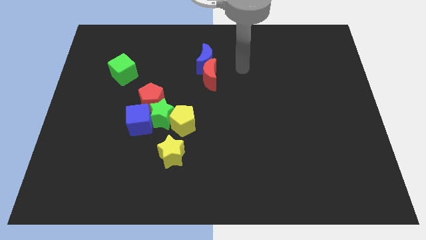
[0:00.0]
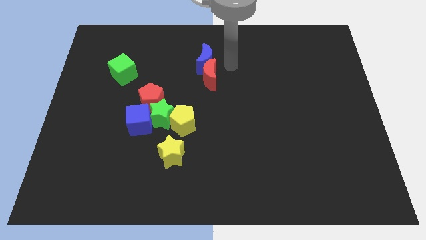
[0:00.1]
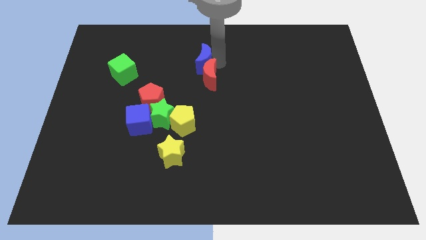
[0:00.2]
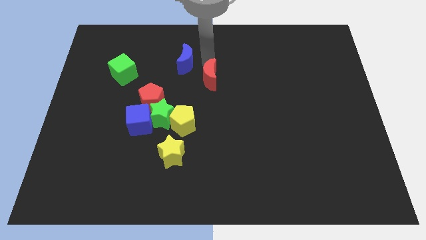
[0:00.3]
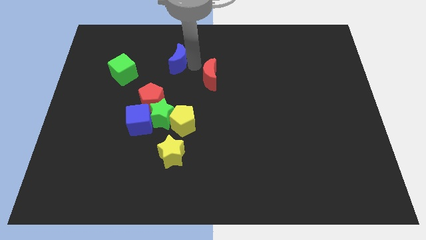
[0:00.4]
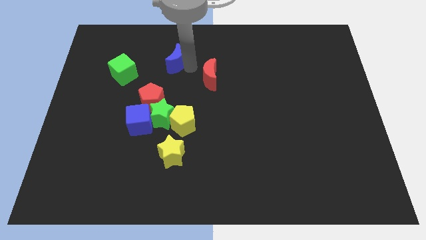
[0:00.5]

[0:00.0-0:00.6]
move the red moon away from the blue moon

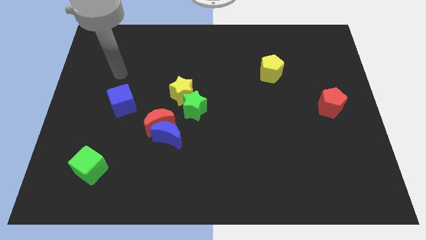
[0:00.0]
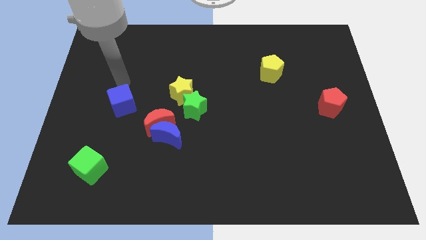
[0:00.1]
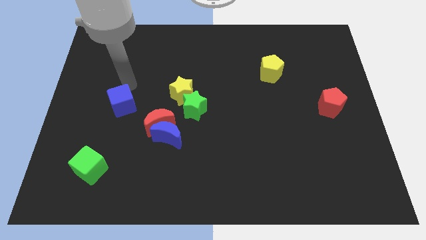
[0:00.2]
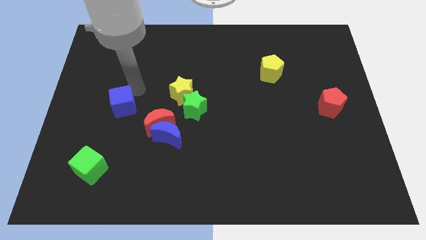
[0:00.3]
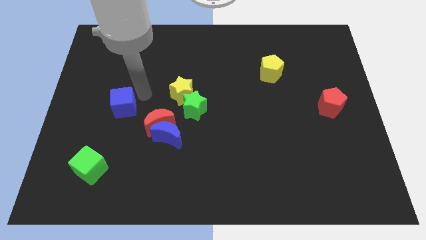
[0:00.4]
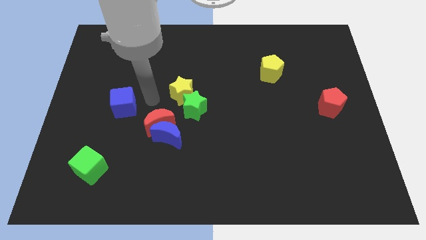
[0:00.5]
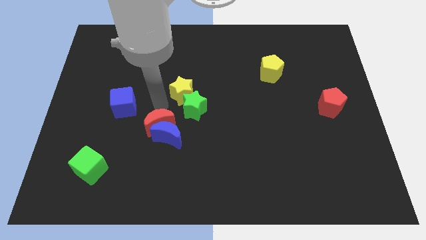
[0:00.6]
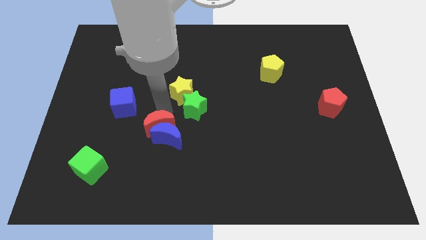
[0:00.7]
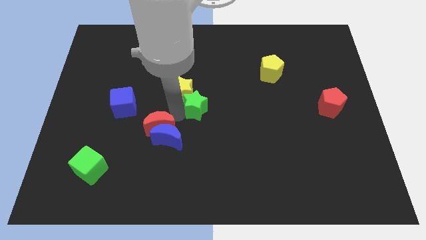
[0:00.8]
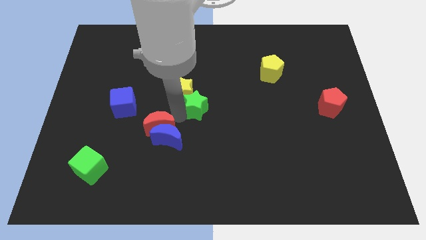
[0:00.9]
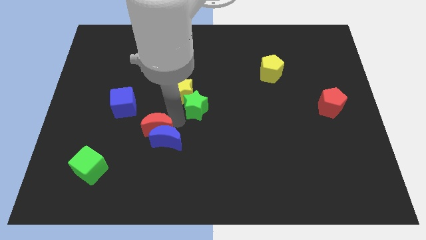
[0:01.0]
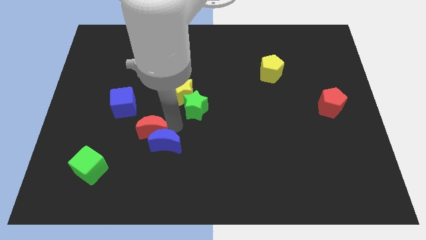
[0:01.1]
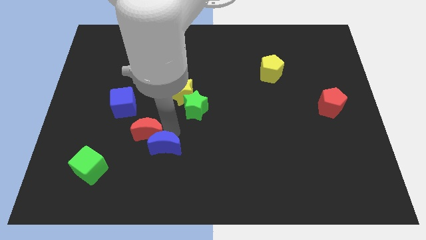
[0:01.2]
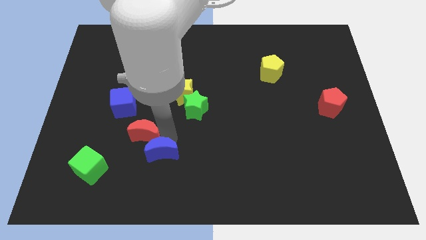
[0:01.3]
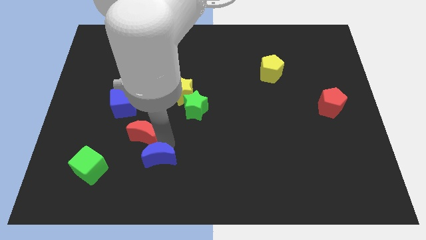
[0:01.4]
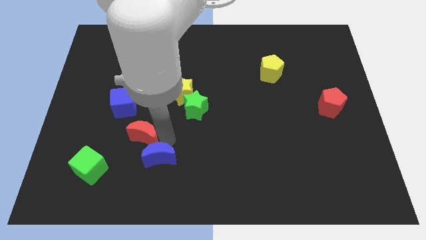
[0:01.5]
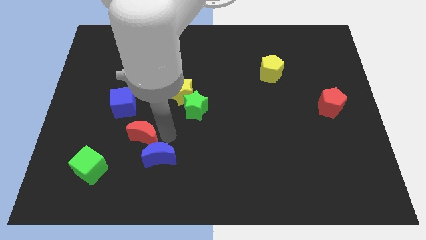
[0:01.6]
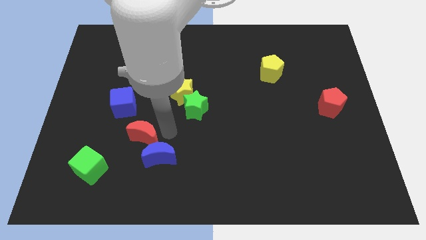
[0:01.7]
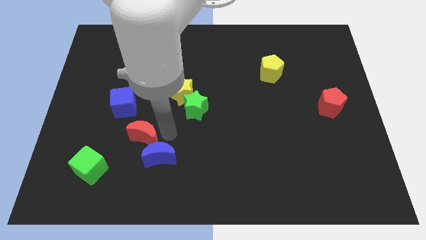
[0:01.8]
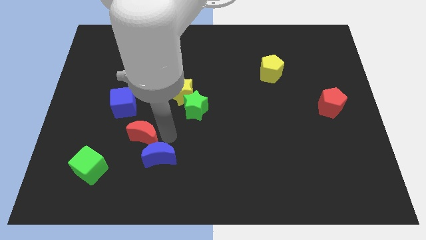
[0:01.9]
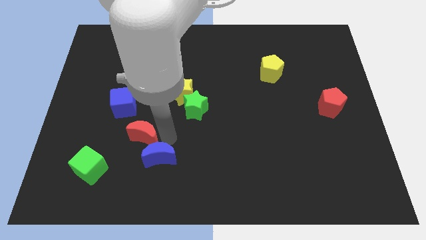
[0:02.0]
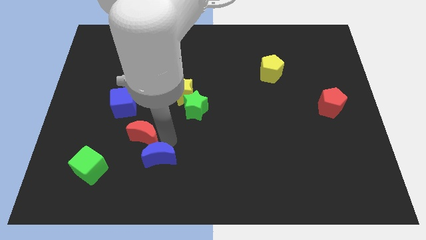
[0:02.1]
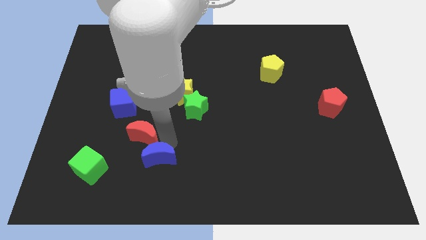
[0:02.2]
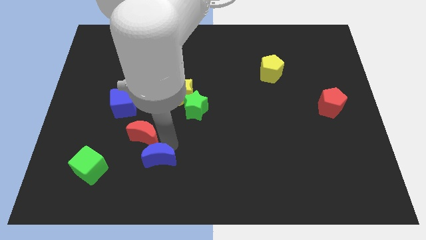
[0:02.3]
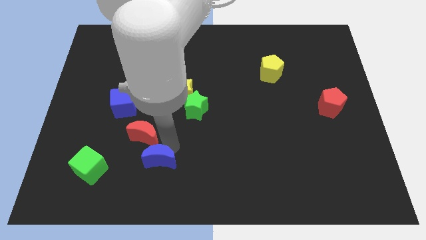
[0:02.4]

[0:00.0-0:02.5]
move the blue moon away from the red moon and green star

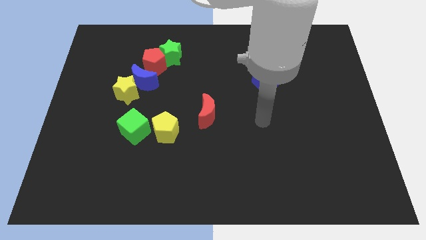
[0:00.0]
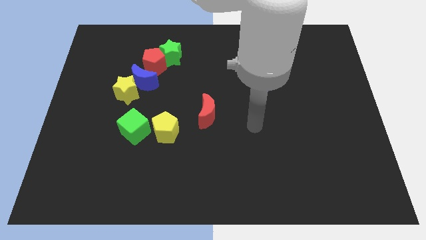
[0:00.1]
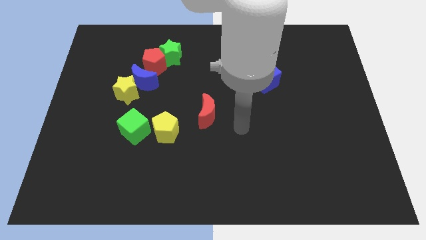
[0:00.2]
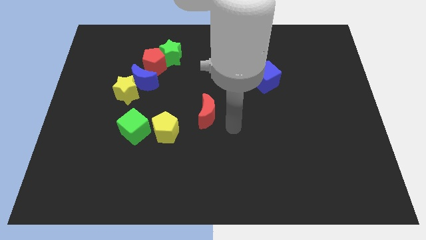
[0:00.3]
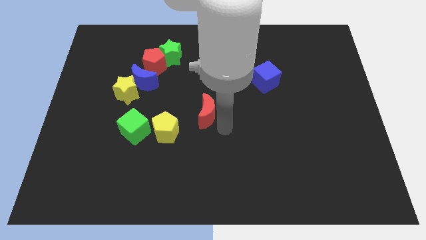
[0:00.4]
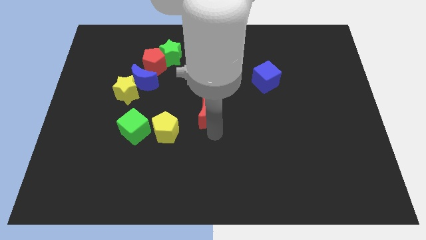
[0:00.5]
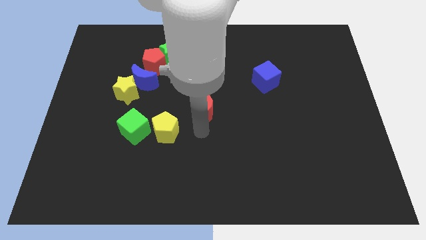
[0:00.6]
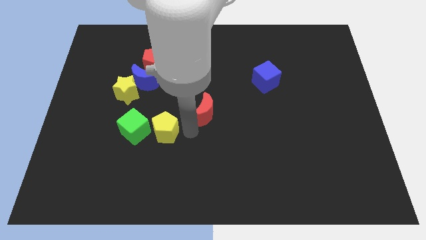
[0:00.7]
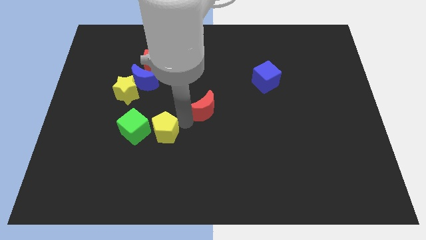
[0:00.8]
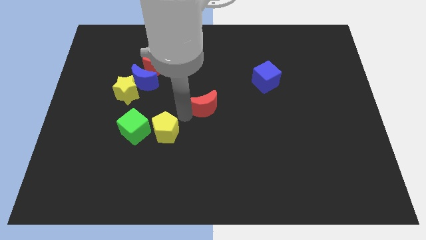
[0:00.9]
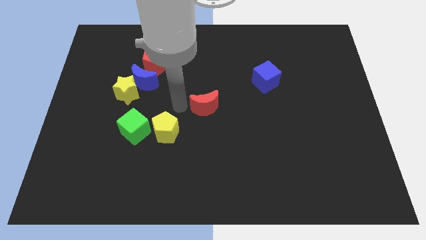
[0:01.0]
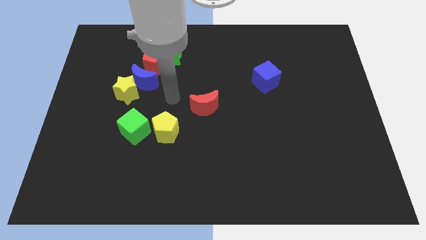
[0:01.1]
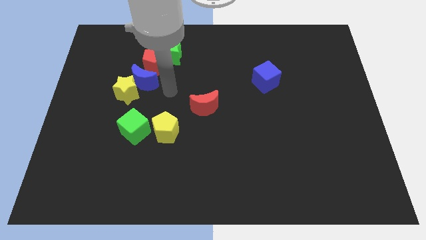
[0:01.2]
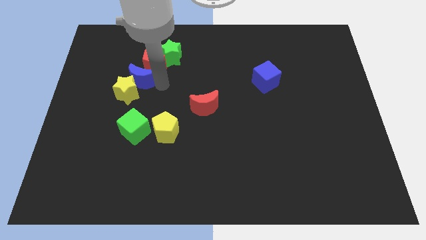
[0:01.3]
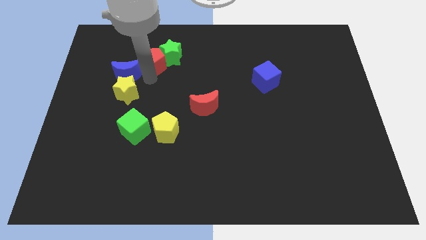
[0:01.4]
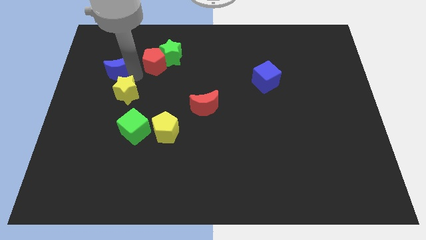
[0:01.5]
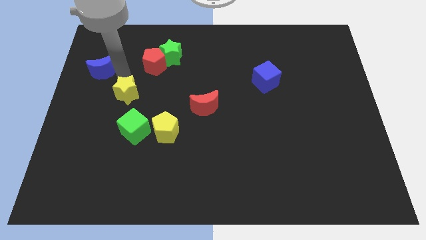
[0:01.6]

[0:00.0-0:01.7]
move the yellow star away from the blue moon

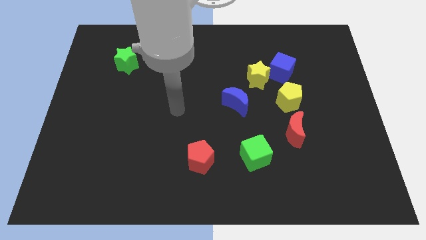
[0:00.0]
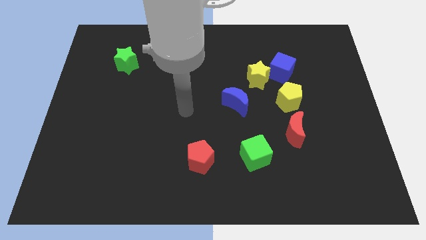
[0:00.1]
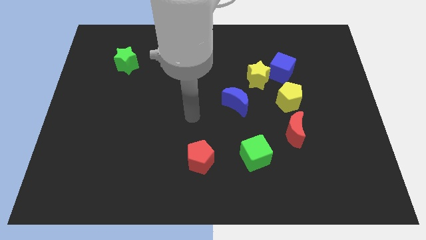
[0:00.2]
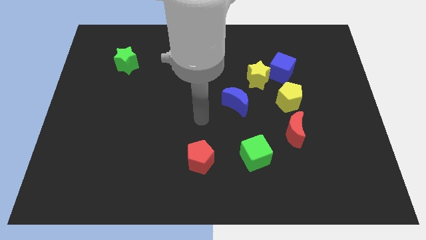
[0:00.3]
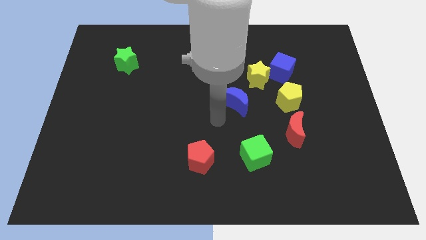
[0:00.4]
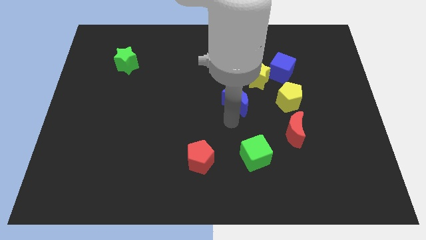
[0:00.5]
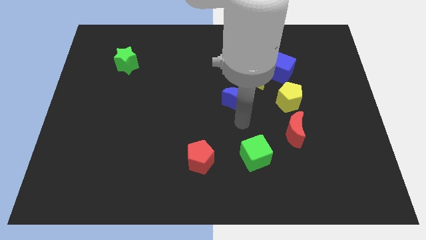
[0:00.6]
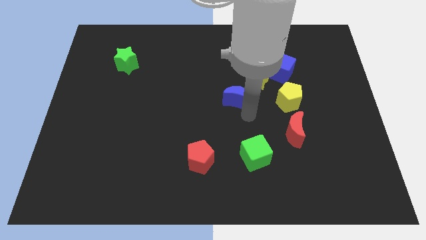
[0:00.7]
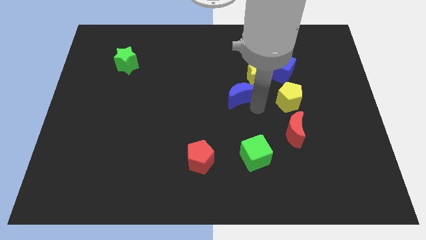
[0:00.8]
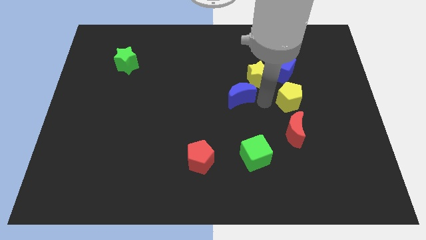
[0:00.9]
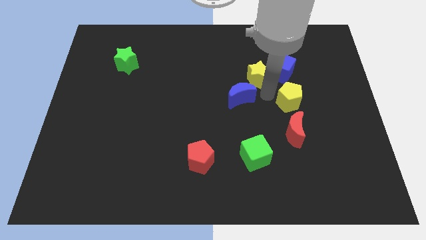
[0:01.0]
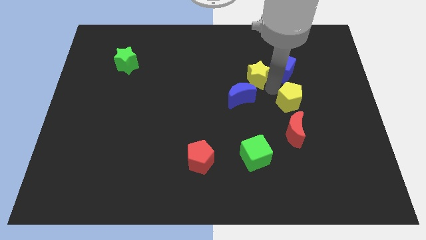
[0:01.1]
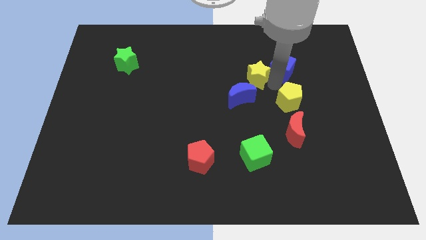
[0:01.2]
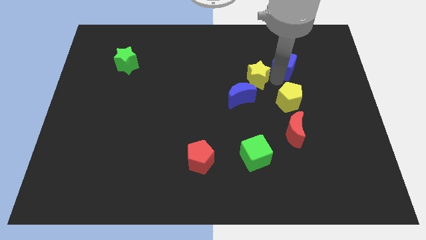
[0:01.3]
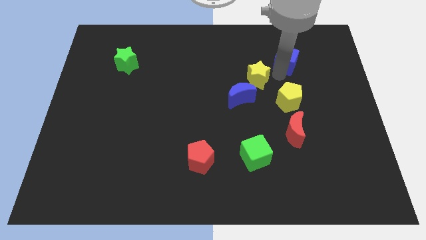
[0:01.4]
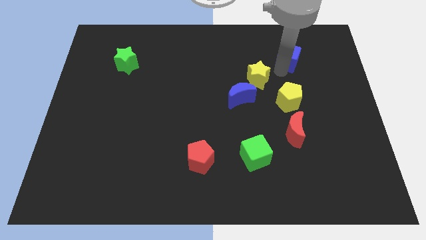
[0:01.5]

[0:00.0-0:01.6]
pull the blue cube apart from the yellow star and yellow pentagon

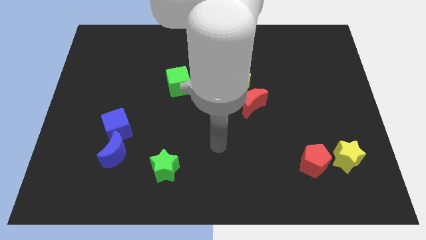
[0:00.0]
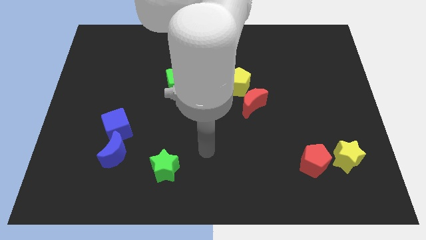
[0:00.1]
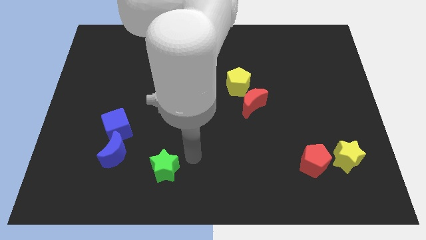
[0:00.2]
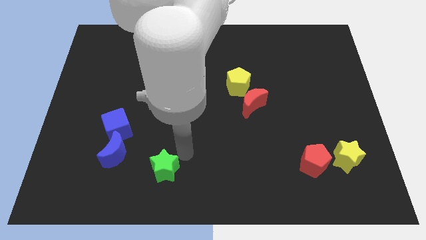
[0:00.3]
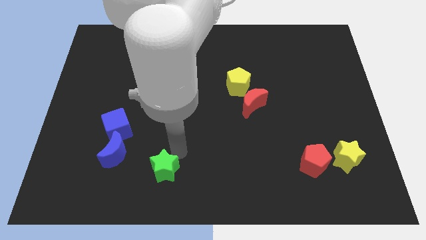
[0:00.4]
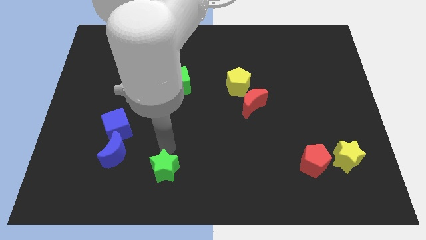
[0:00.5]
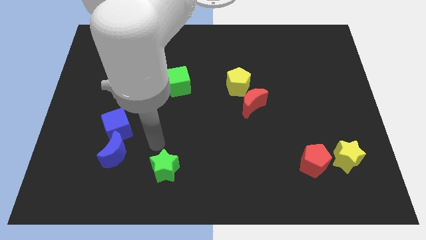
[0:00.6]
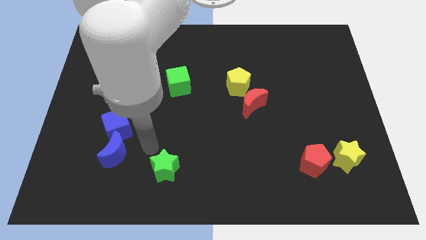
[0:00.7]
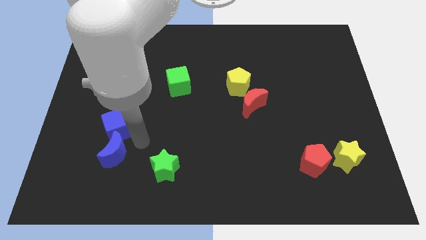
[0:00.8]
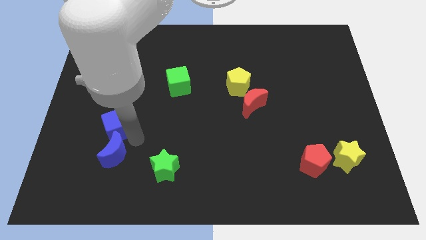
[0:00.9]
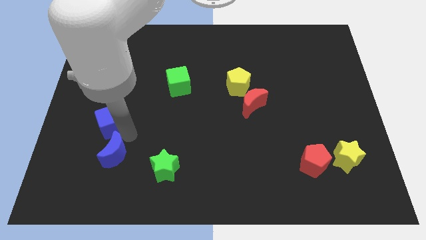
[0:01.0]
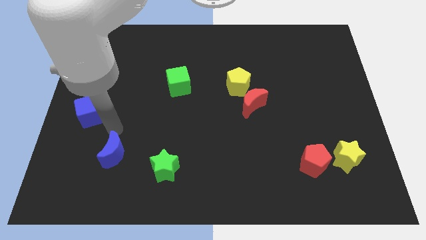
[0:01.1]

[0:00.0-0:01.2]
move the blue moon away from the blue cube

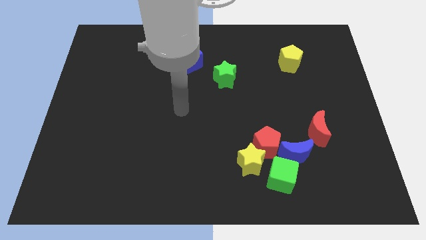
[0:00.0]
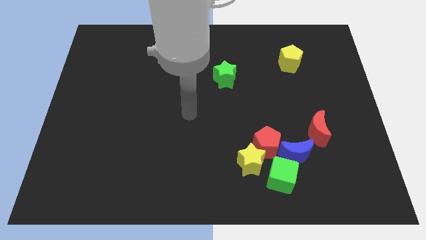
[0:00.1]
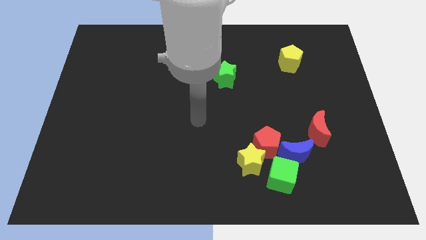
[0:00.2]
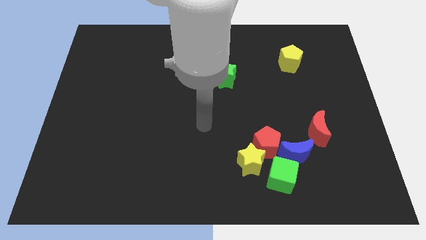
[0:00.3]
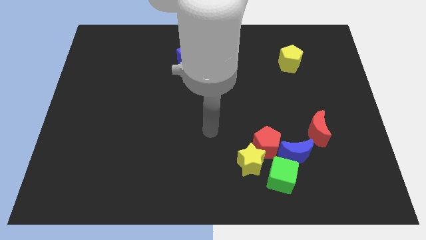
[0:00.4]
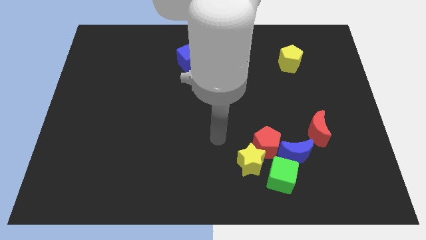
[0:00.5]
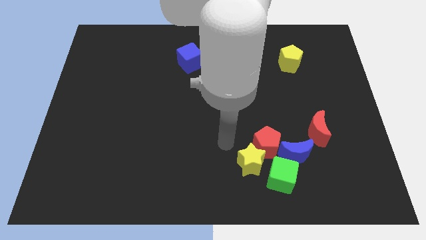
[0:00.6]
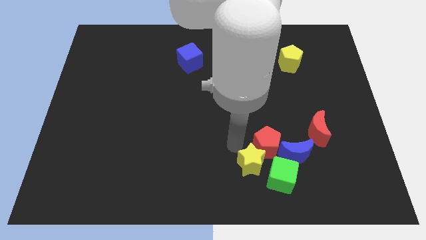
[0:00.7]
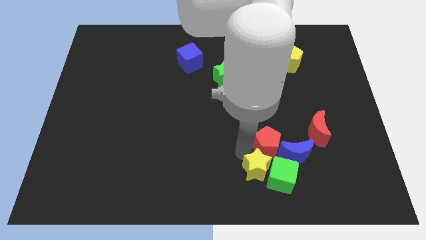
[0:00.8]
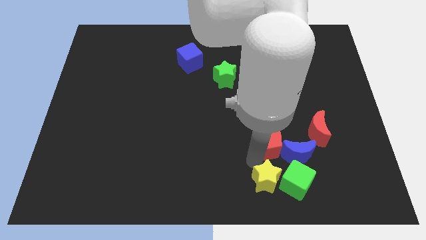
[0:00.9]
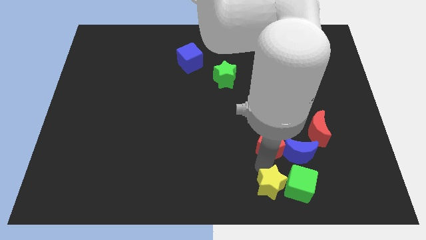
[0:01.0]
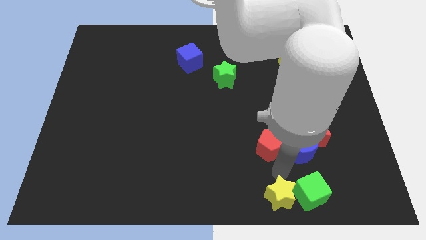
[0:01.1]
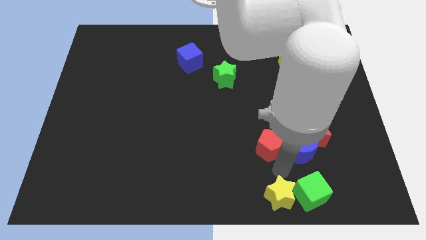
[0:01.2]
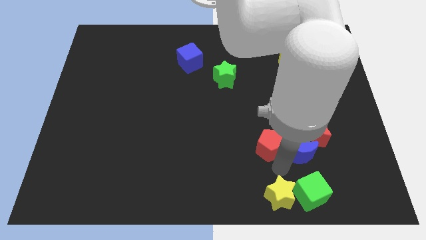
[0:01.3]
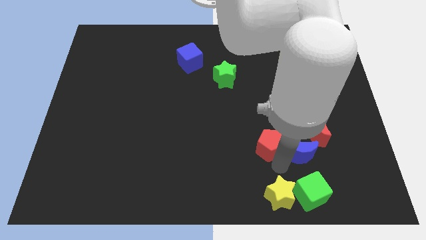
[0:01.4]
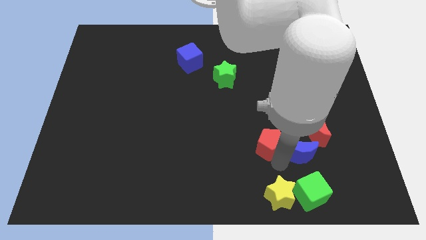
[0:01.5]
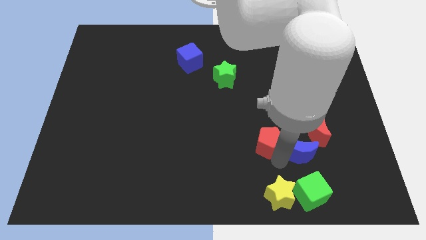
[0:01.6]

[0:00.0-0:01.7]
separate the red pentagon from the yellow star, blue moon, and green cube
